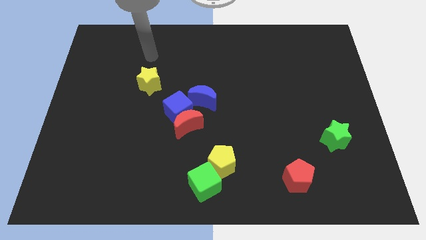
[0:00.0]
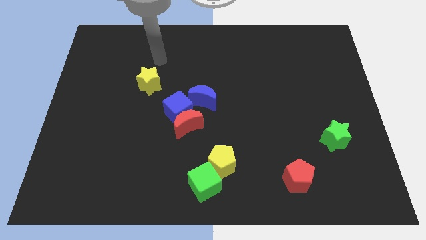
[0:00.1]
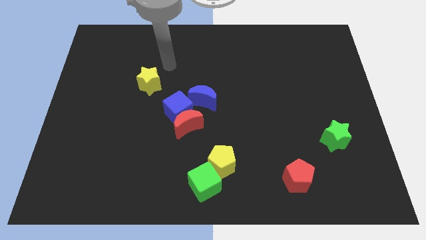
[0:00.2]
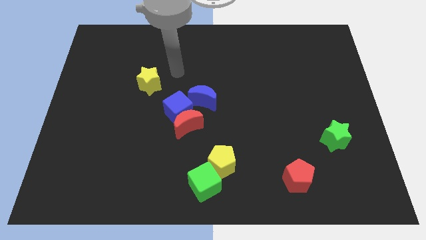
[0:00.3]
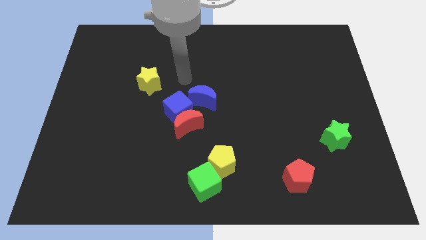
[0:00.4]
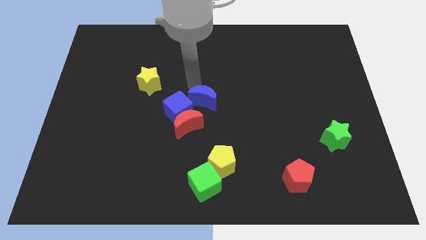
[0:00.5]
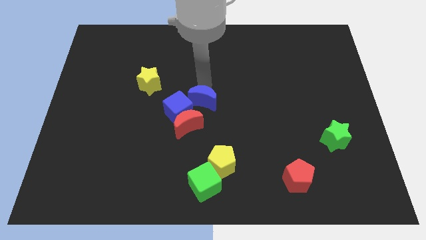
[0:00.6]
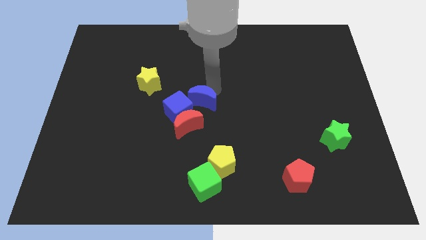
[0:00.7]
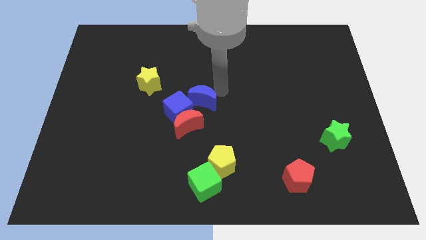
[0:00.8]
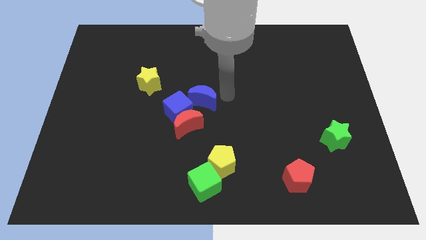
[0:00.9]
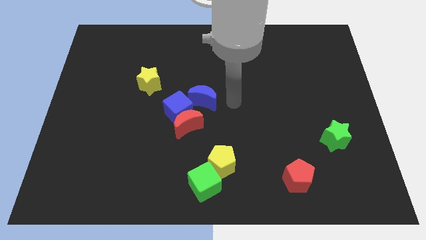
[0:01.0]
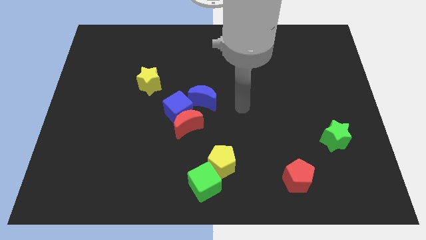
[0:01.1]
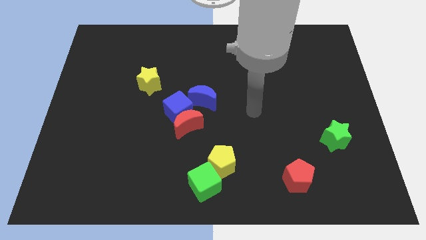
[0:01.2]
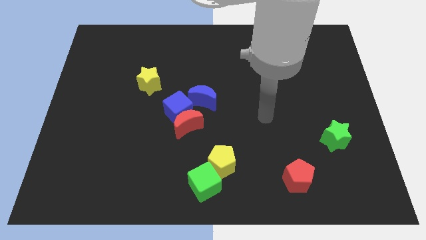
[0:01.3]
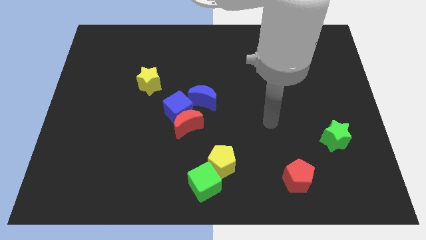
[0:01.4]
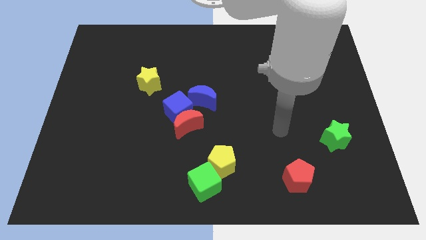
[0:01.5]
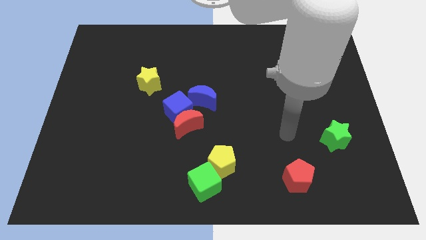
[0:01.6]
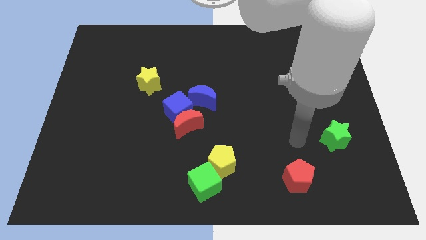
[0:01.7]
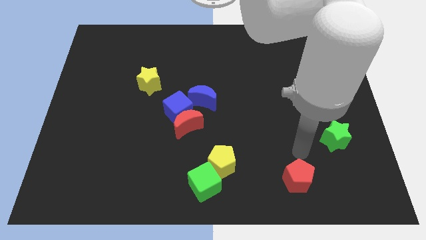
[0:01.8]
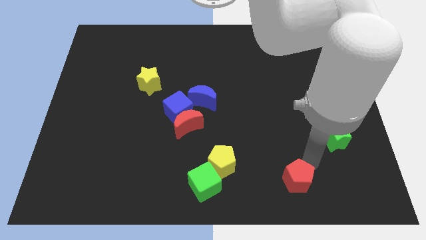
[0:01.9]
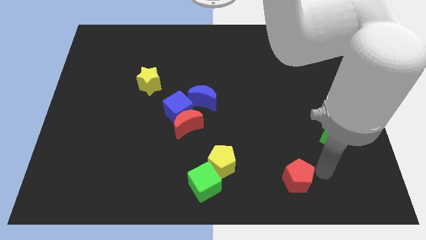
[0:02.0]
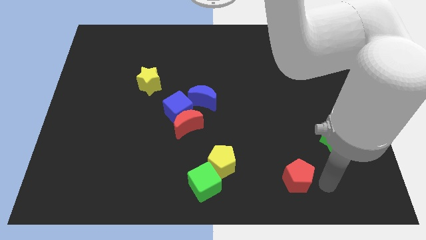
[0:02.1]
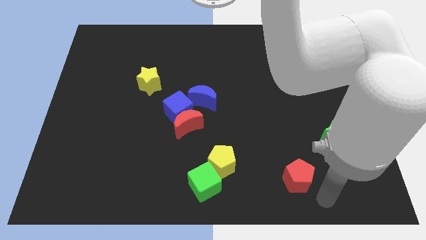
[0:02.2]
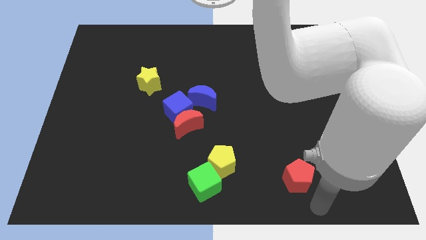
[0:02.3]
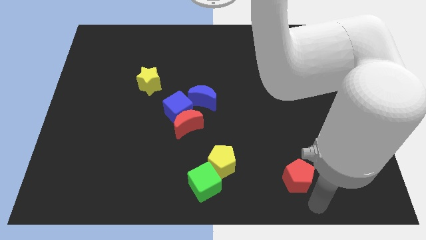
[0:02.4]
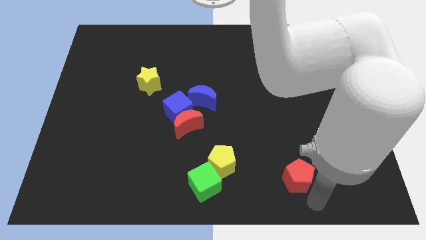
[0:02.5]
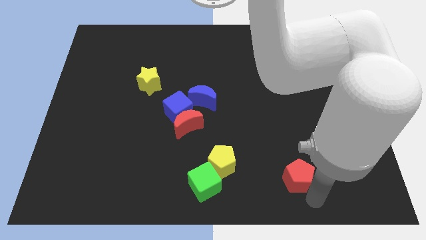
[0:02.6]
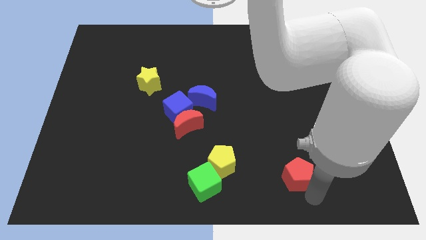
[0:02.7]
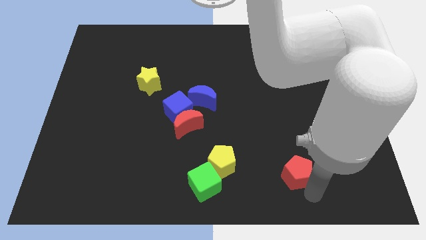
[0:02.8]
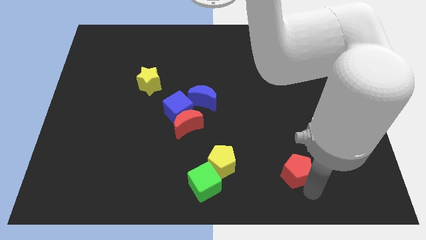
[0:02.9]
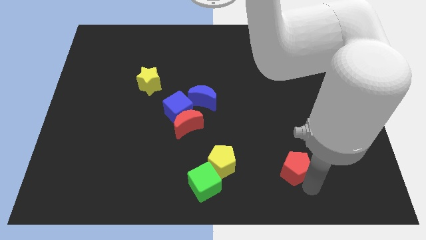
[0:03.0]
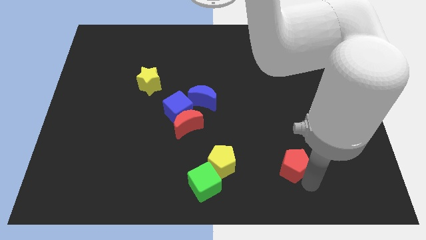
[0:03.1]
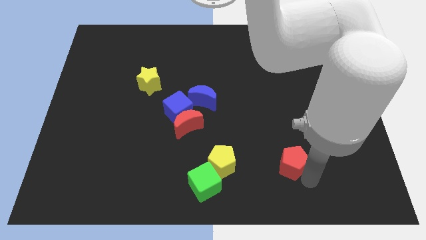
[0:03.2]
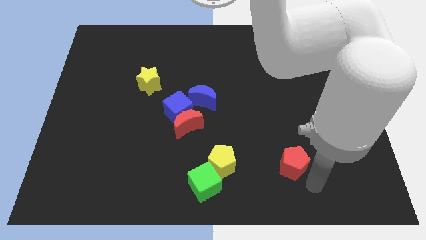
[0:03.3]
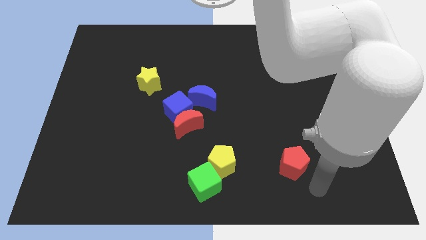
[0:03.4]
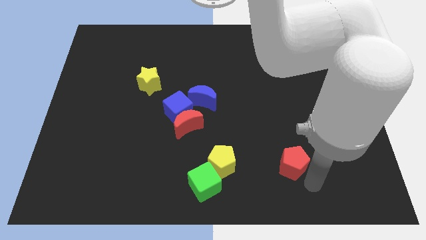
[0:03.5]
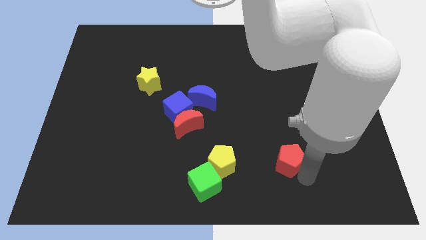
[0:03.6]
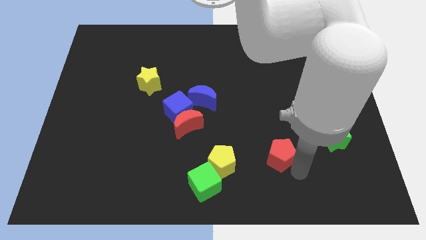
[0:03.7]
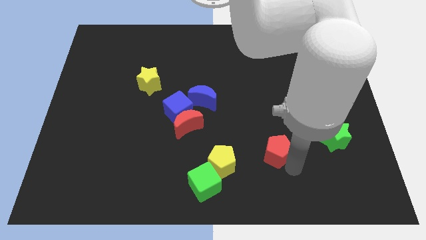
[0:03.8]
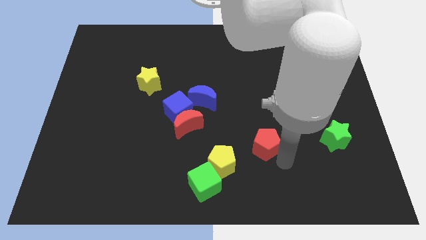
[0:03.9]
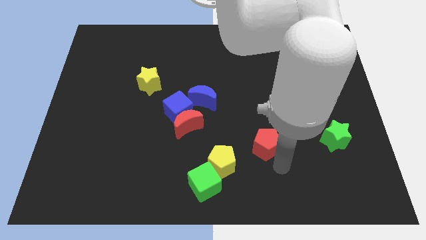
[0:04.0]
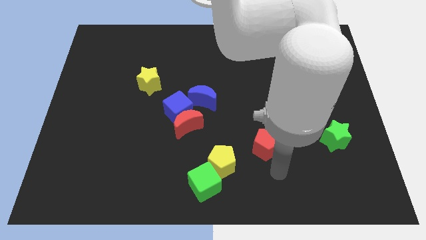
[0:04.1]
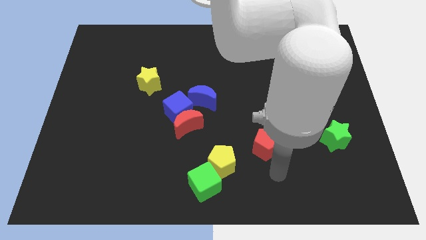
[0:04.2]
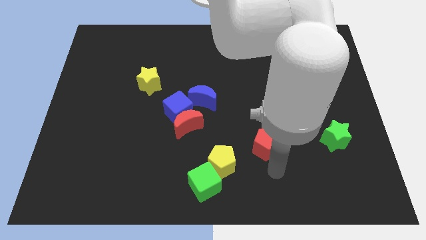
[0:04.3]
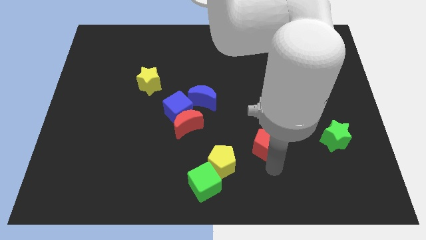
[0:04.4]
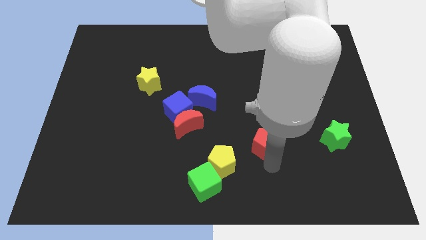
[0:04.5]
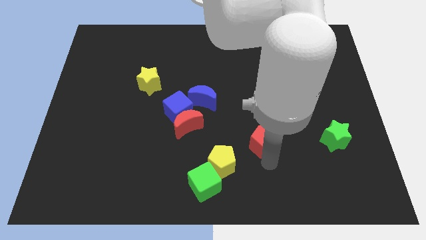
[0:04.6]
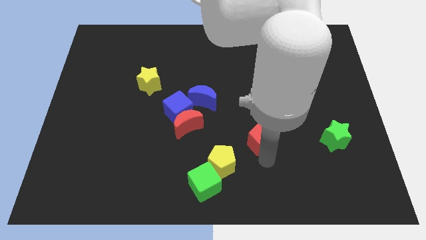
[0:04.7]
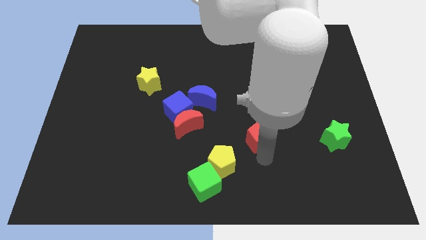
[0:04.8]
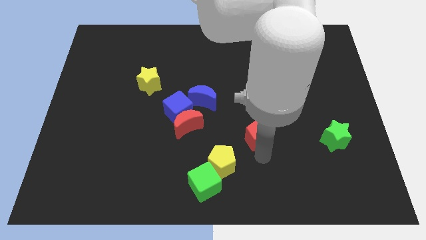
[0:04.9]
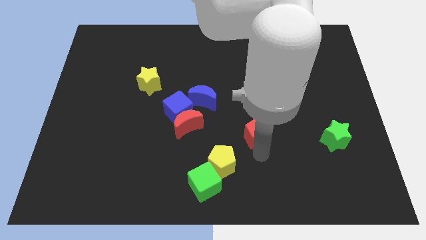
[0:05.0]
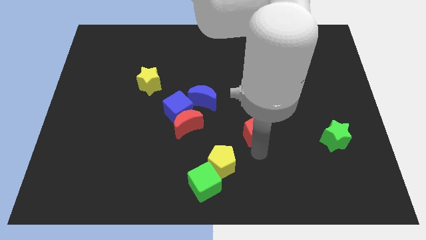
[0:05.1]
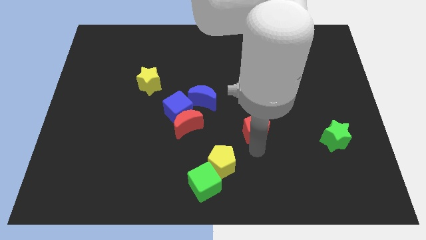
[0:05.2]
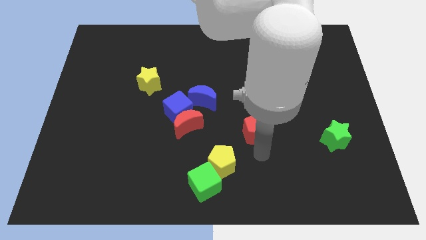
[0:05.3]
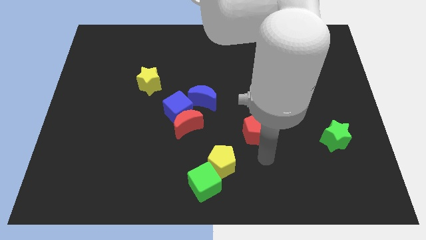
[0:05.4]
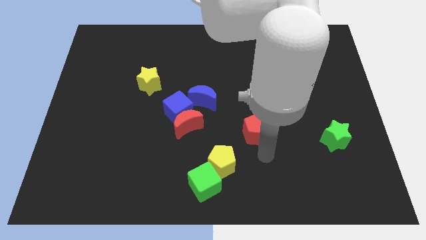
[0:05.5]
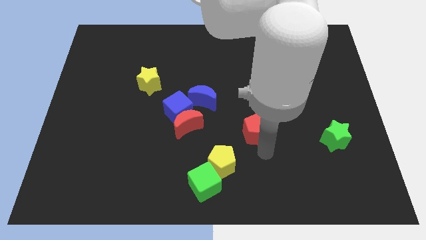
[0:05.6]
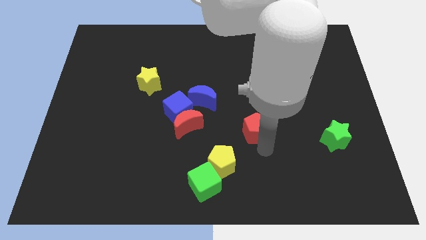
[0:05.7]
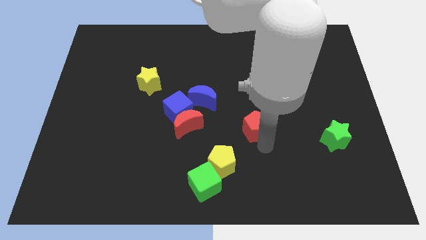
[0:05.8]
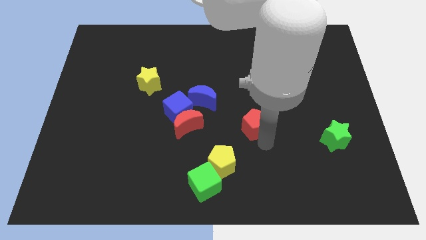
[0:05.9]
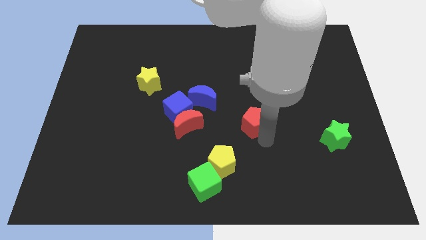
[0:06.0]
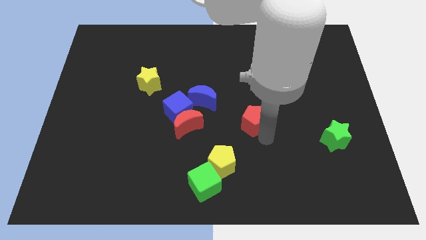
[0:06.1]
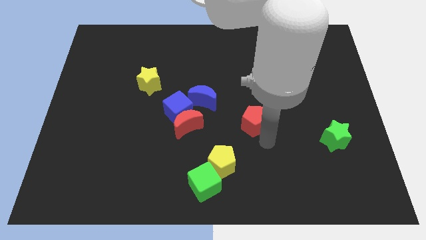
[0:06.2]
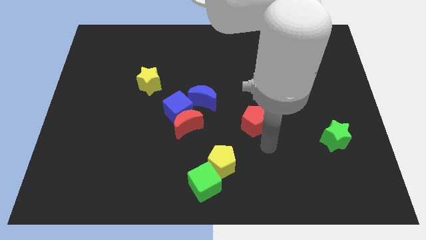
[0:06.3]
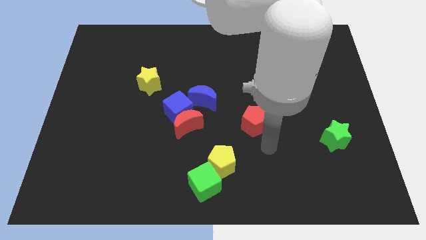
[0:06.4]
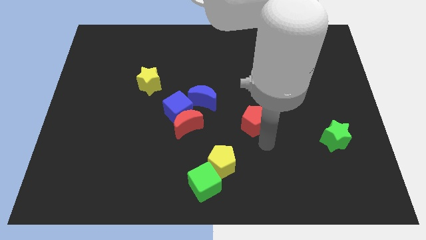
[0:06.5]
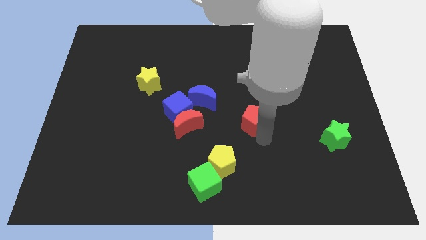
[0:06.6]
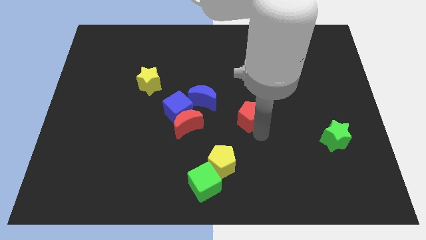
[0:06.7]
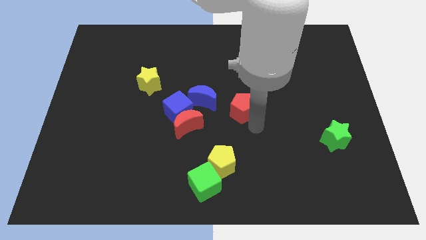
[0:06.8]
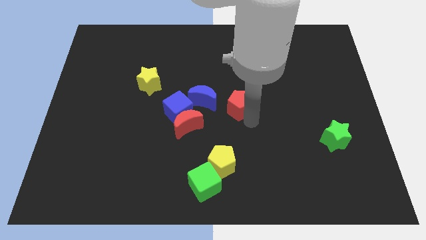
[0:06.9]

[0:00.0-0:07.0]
move the red pentagon diagonally upwards and left

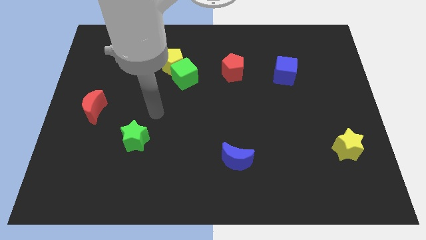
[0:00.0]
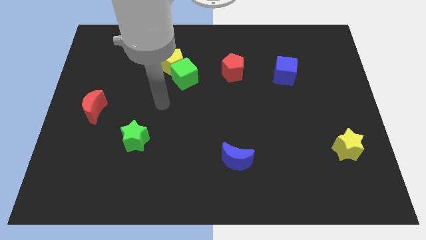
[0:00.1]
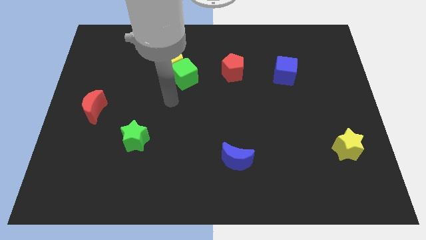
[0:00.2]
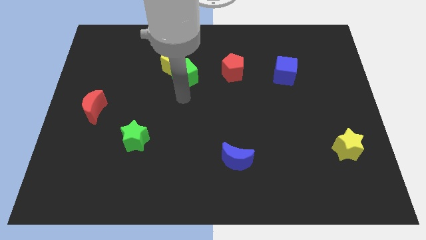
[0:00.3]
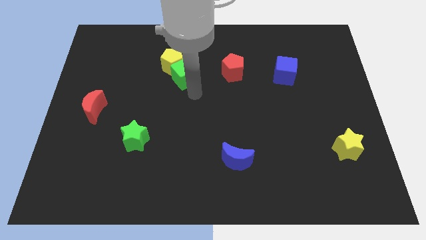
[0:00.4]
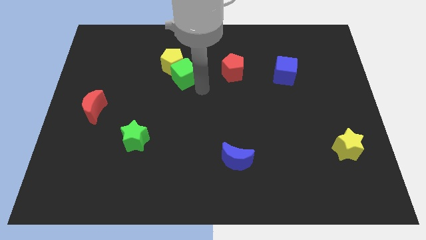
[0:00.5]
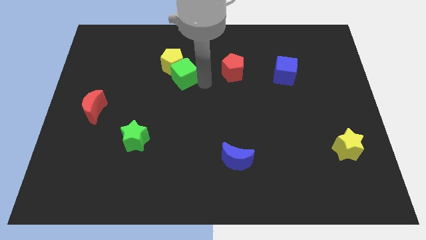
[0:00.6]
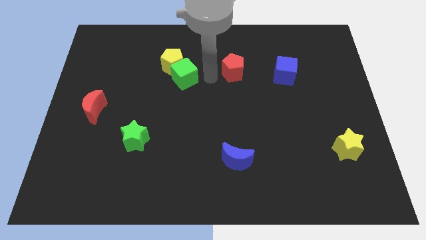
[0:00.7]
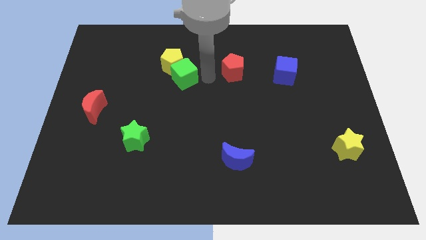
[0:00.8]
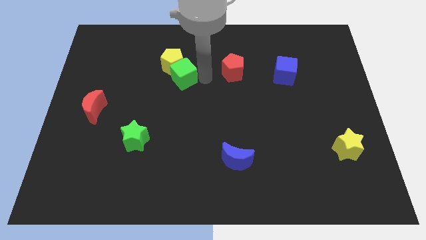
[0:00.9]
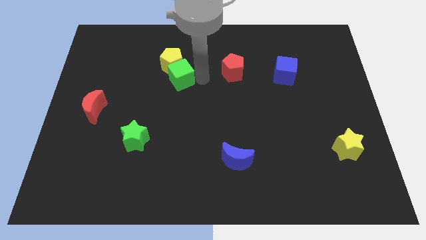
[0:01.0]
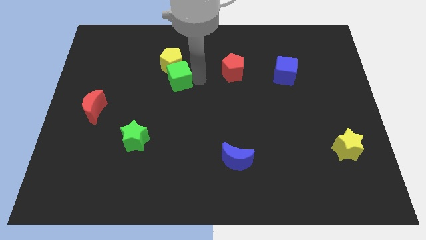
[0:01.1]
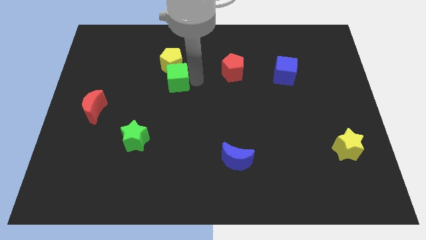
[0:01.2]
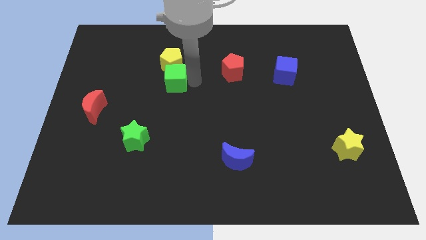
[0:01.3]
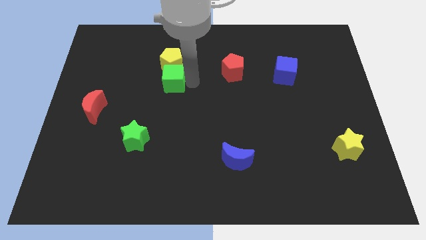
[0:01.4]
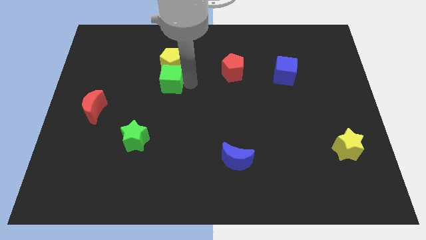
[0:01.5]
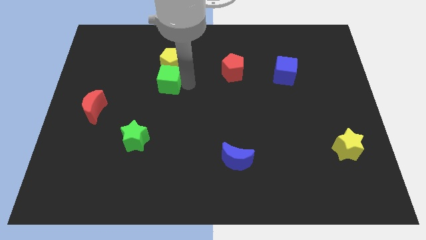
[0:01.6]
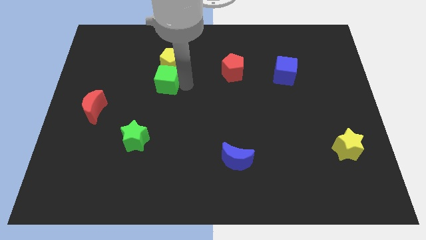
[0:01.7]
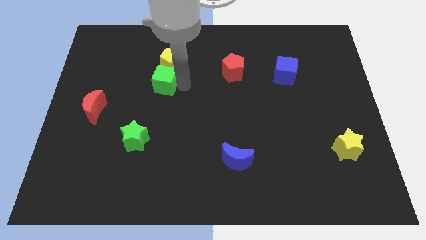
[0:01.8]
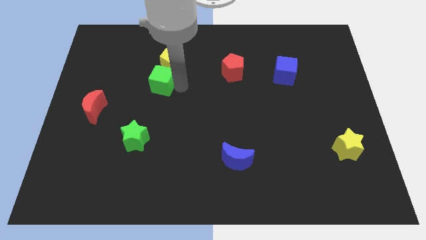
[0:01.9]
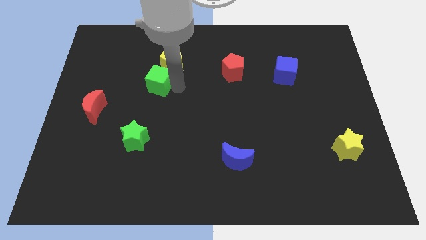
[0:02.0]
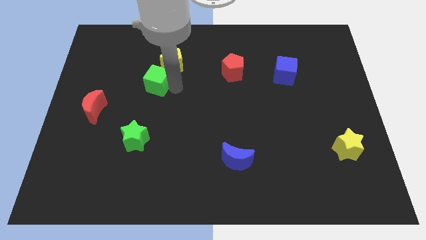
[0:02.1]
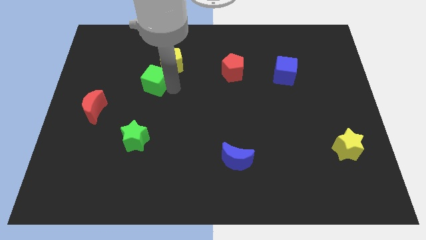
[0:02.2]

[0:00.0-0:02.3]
slide the green cube left slightly
